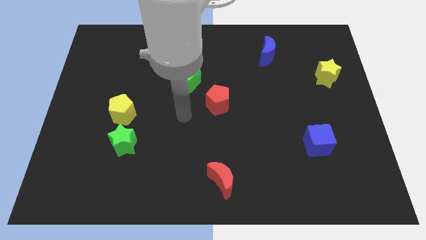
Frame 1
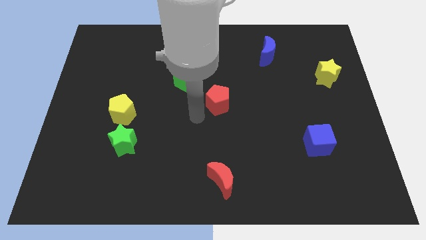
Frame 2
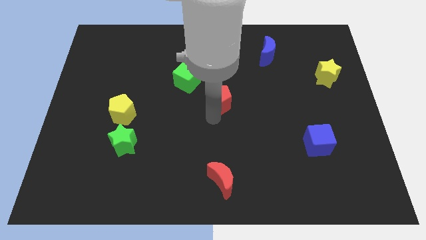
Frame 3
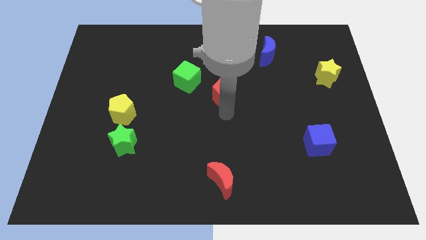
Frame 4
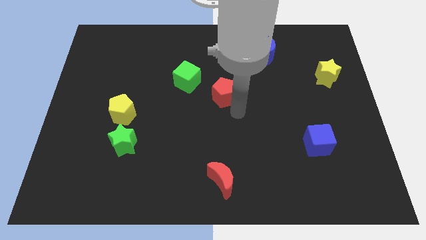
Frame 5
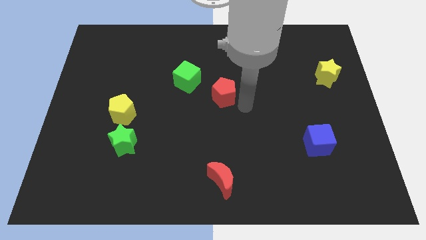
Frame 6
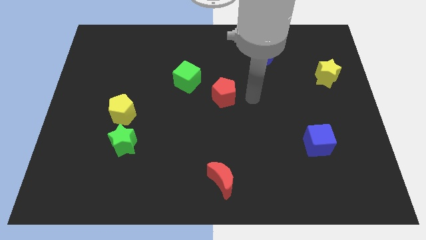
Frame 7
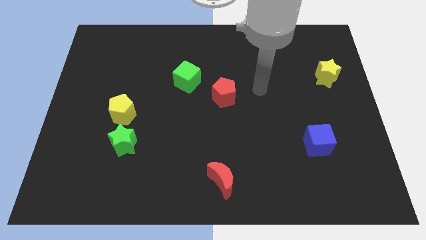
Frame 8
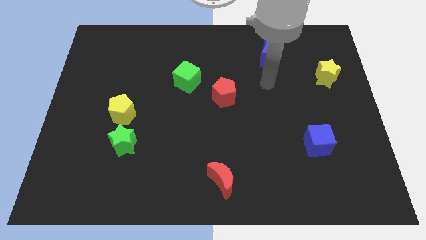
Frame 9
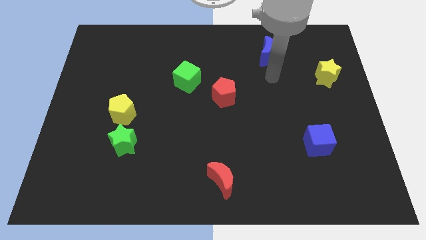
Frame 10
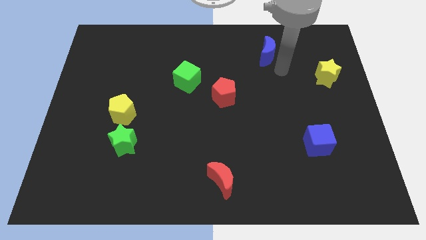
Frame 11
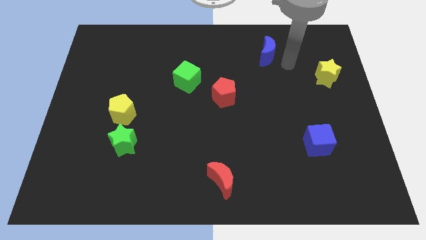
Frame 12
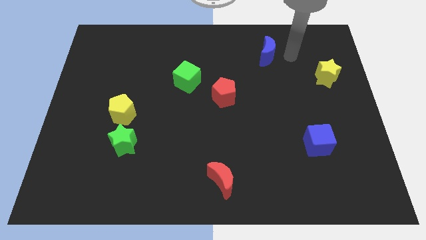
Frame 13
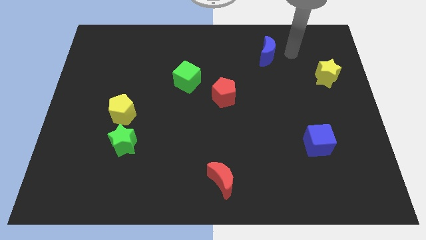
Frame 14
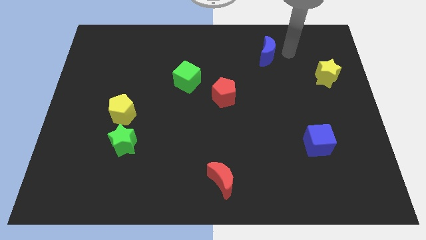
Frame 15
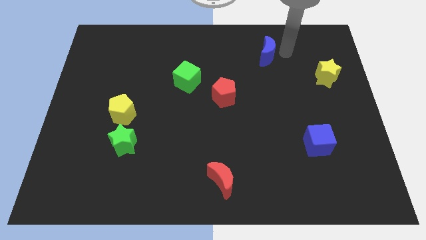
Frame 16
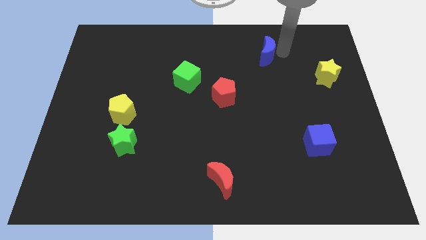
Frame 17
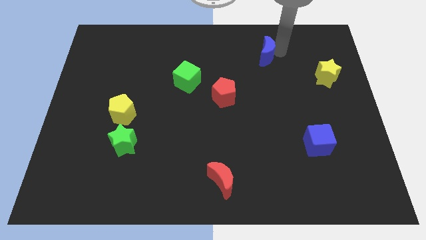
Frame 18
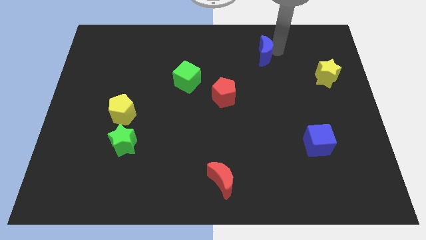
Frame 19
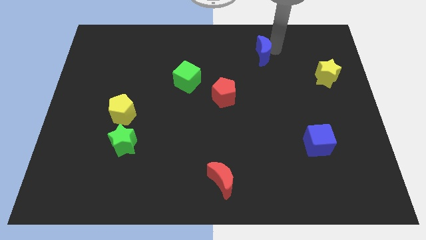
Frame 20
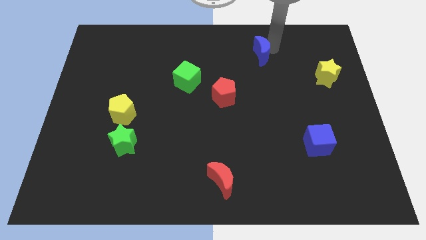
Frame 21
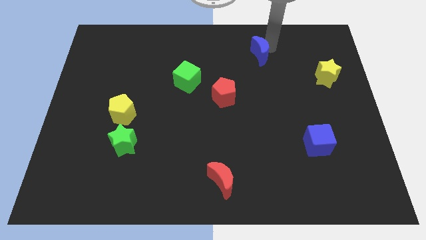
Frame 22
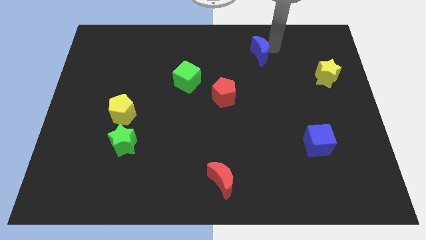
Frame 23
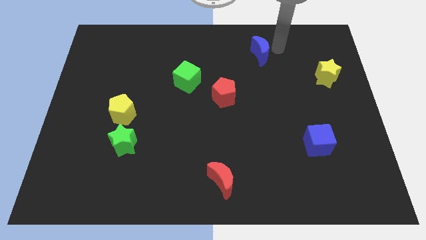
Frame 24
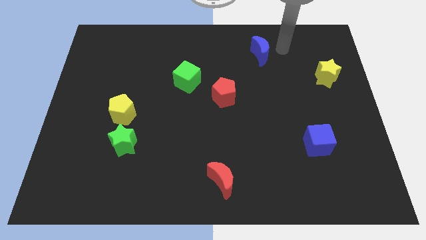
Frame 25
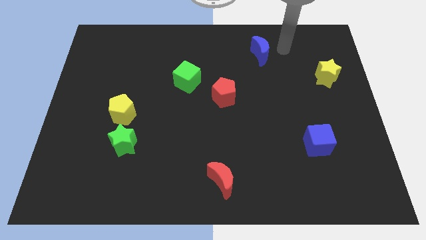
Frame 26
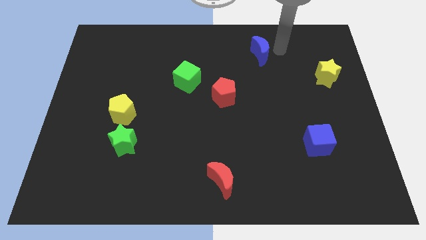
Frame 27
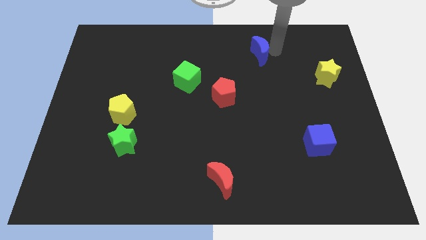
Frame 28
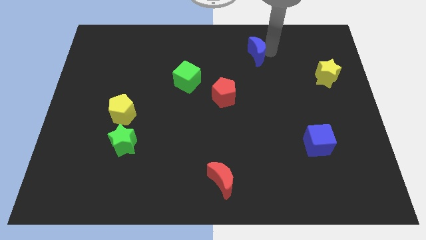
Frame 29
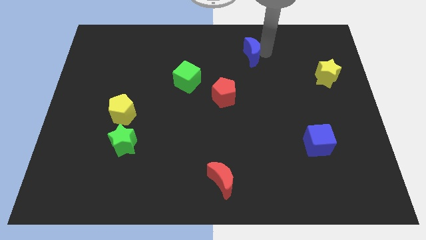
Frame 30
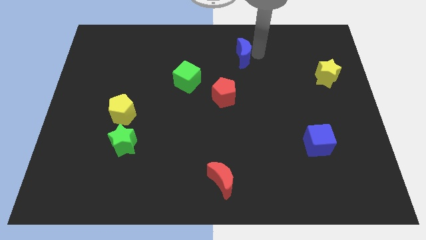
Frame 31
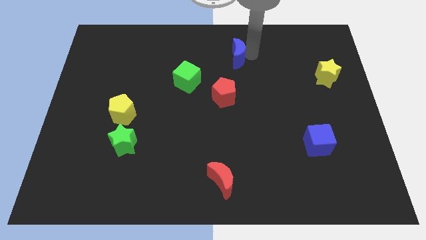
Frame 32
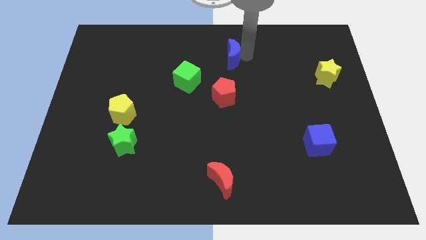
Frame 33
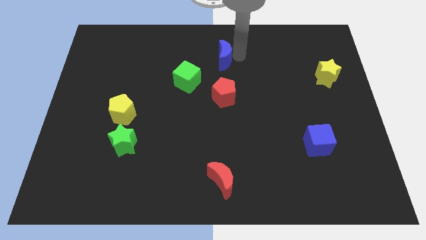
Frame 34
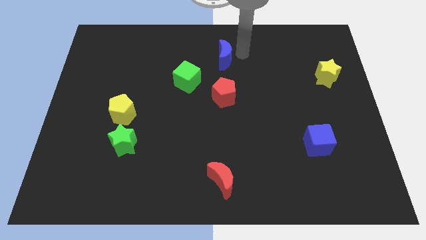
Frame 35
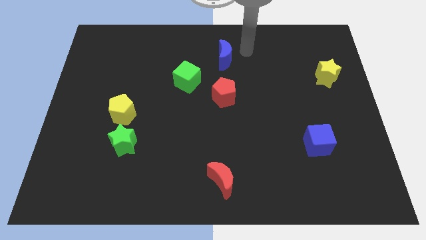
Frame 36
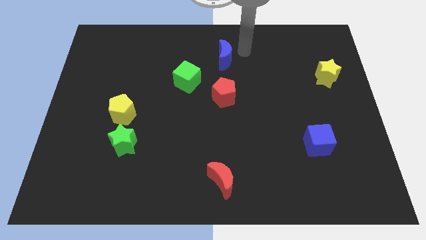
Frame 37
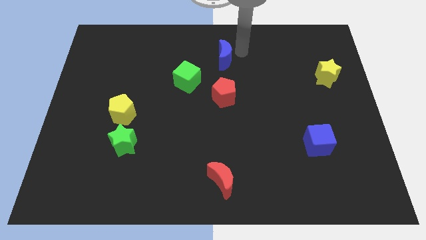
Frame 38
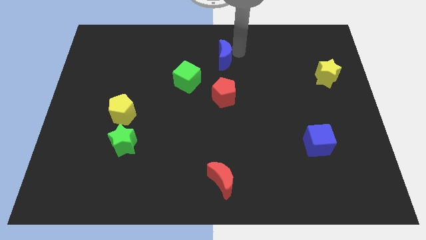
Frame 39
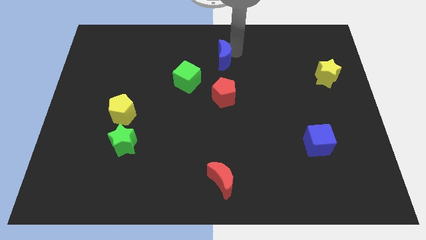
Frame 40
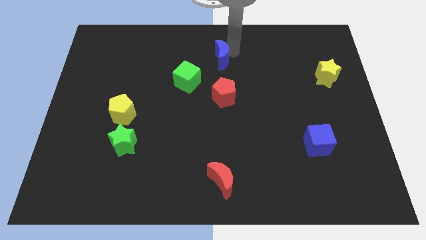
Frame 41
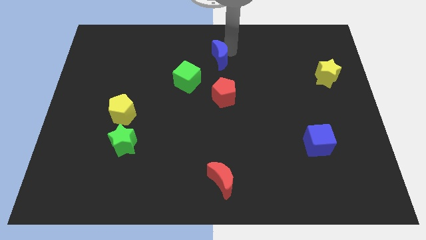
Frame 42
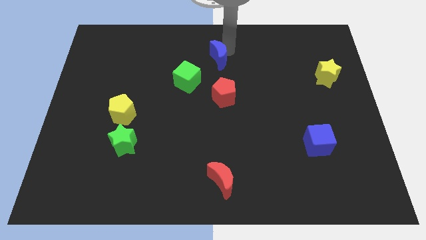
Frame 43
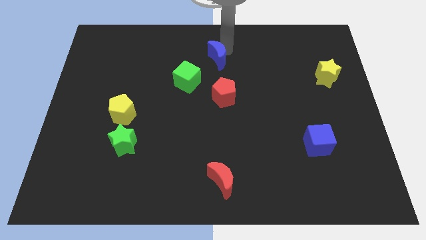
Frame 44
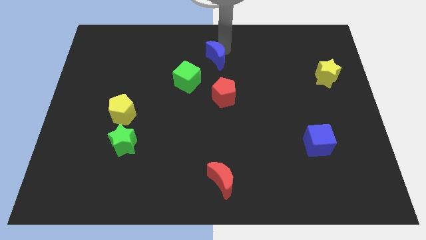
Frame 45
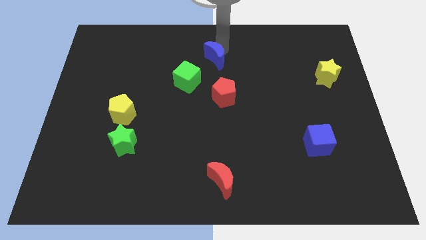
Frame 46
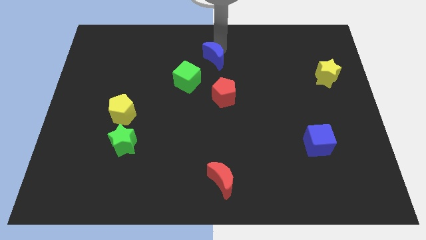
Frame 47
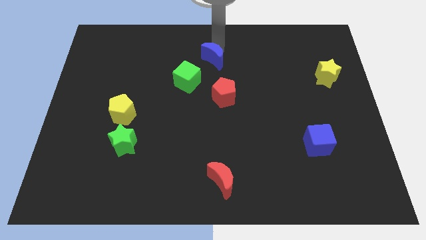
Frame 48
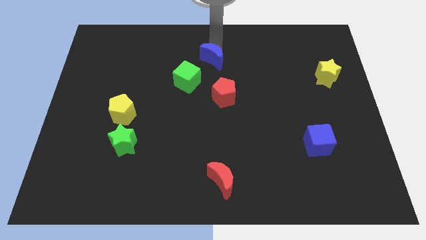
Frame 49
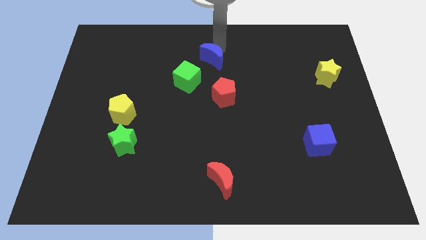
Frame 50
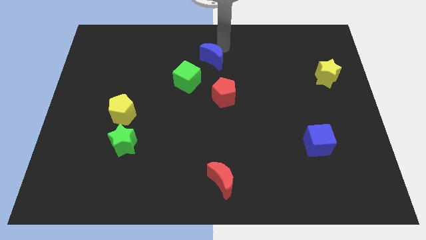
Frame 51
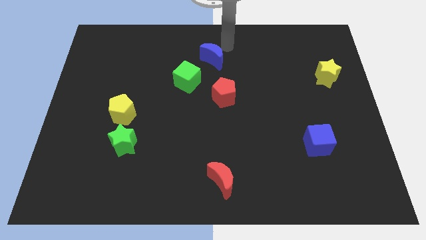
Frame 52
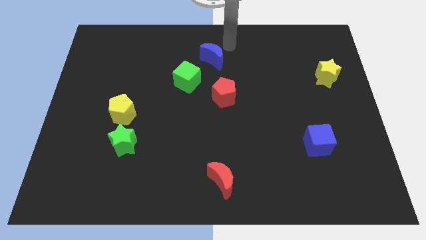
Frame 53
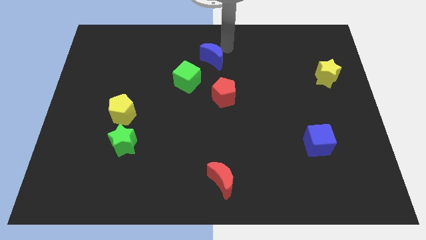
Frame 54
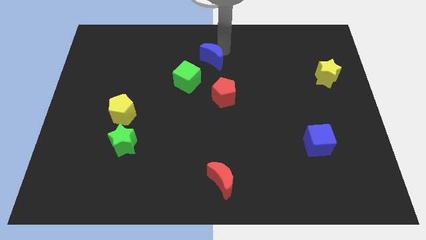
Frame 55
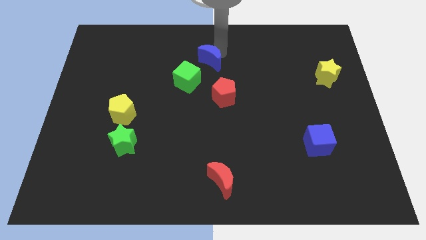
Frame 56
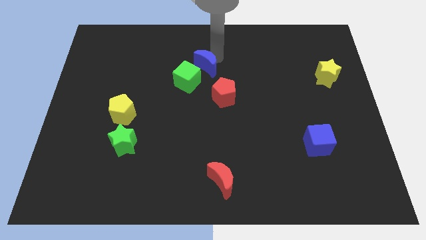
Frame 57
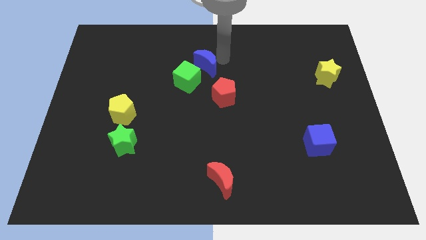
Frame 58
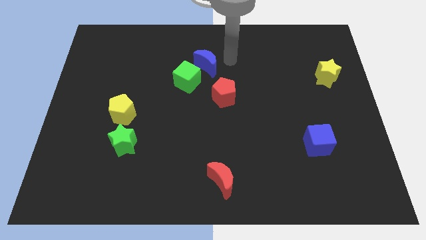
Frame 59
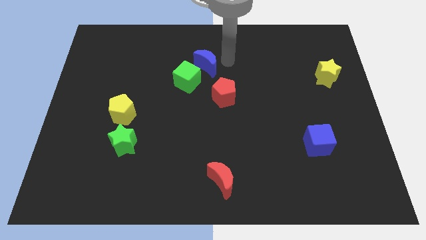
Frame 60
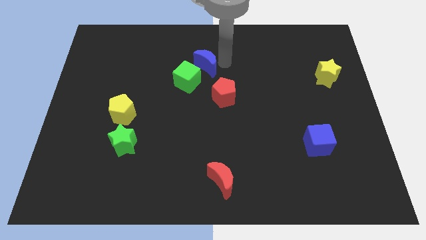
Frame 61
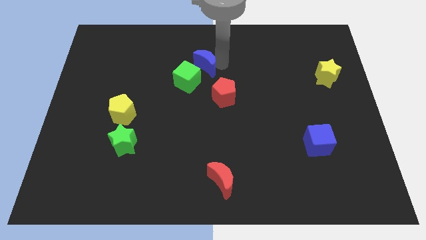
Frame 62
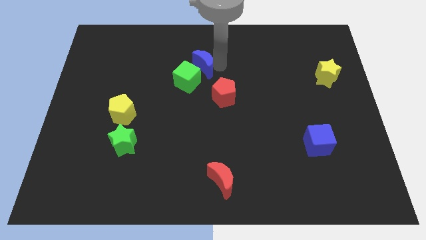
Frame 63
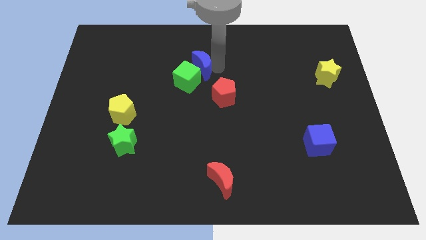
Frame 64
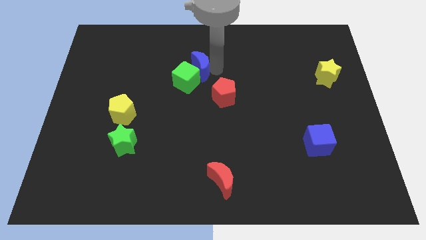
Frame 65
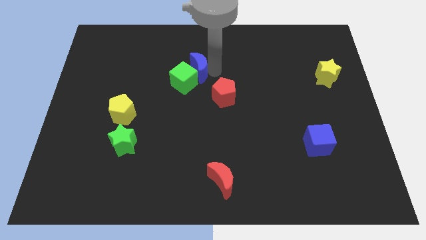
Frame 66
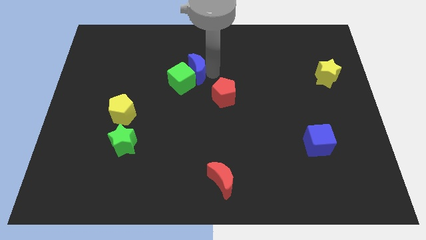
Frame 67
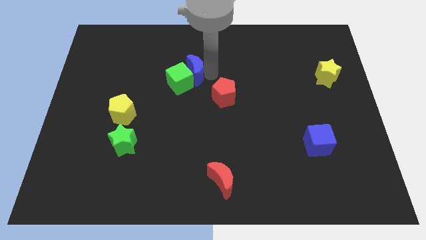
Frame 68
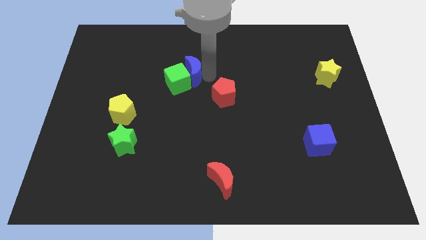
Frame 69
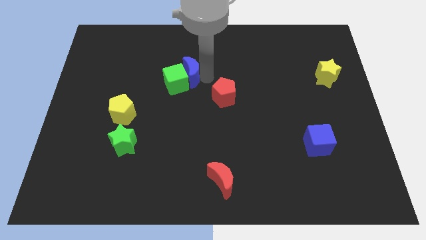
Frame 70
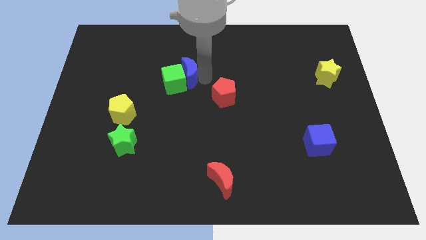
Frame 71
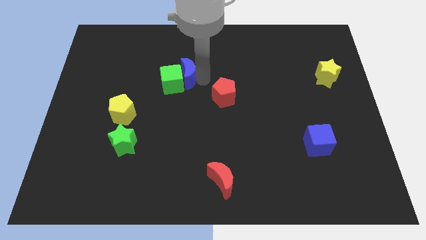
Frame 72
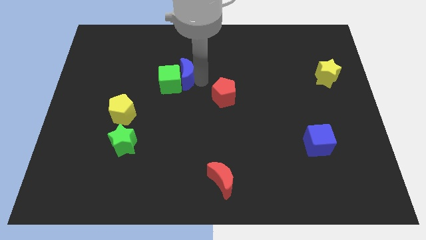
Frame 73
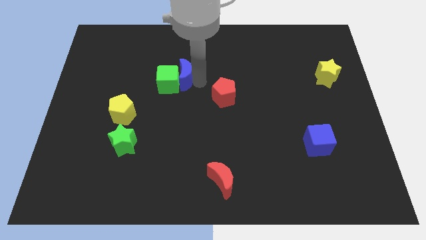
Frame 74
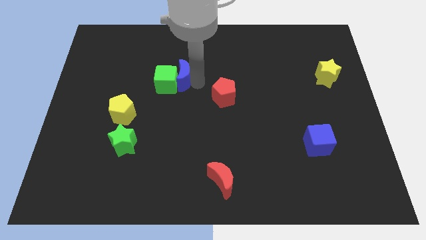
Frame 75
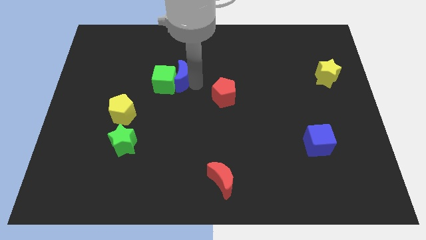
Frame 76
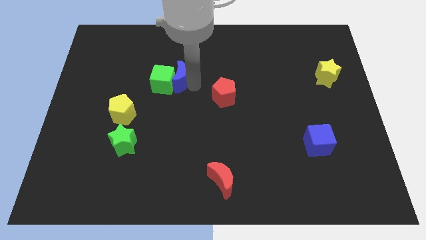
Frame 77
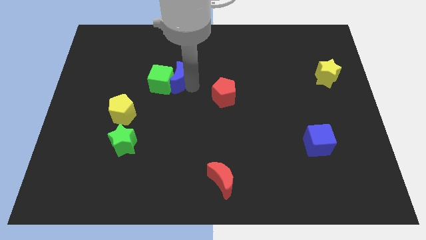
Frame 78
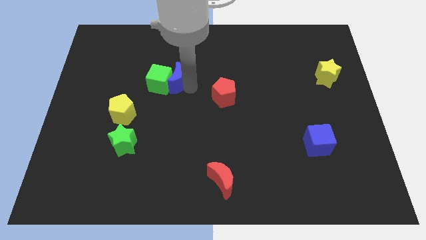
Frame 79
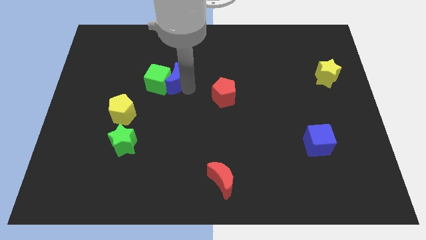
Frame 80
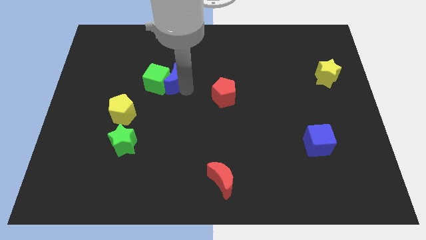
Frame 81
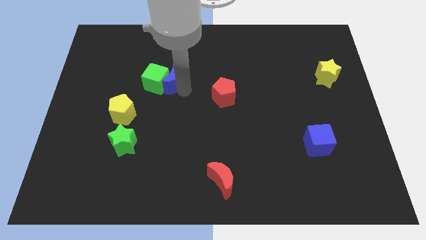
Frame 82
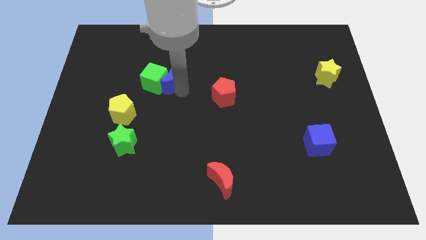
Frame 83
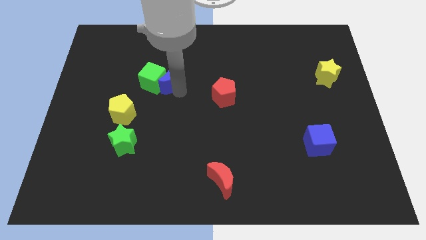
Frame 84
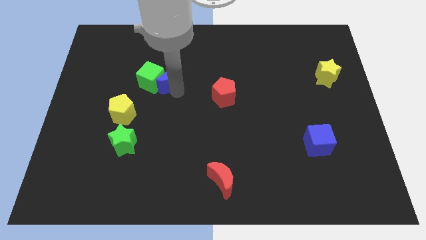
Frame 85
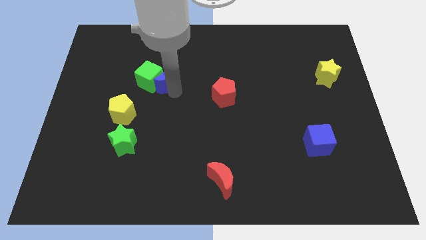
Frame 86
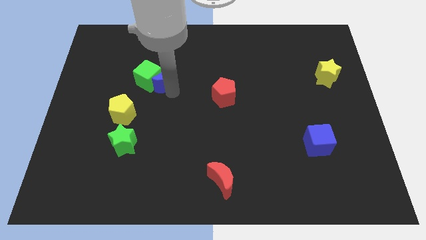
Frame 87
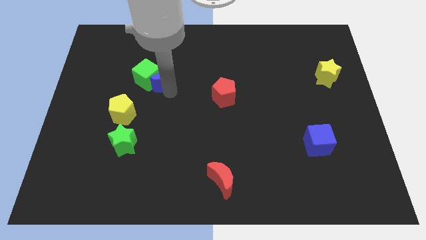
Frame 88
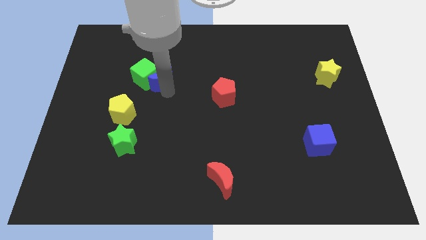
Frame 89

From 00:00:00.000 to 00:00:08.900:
move the blue moon diagonally up and to the right of the yellow pentagon
